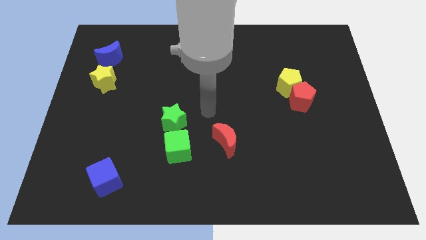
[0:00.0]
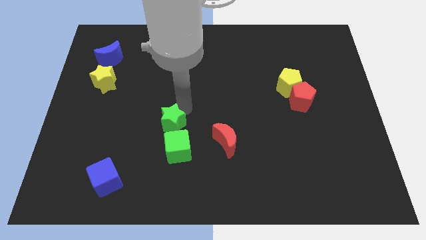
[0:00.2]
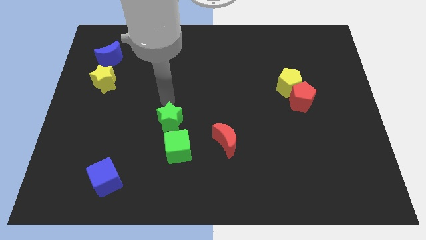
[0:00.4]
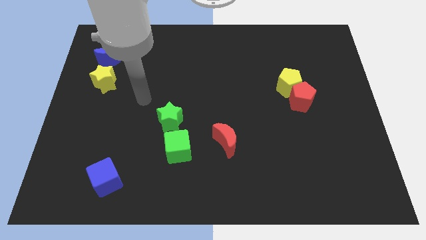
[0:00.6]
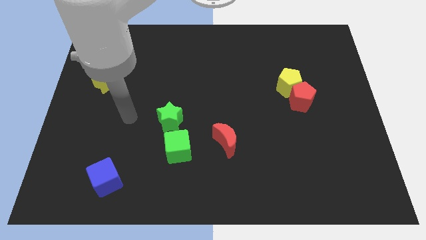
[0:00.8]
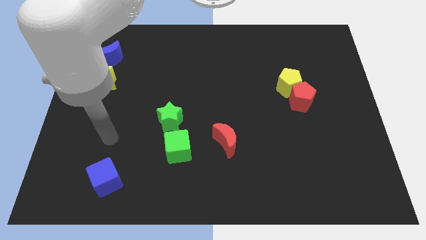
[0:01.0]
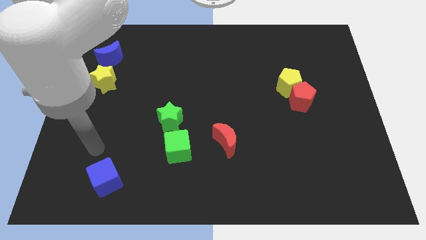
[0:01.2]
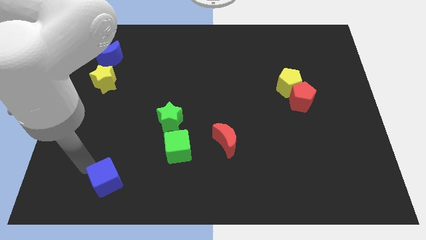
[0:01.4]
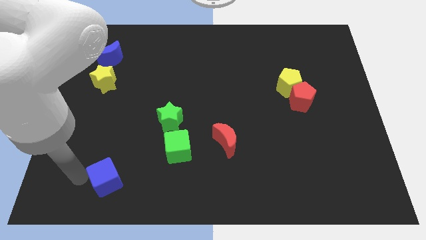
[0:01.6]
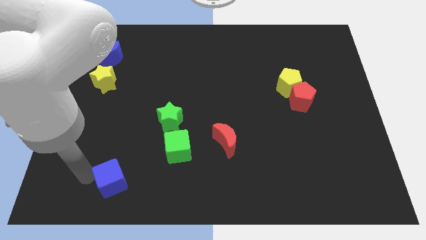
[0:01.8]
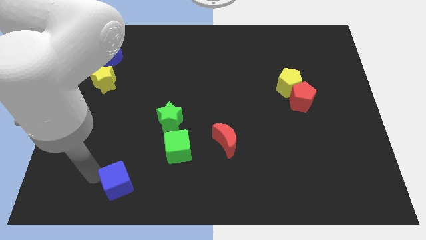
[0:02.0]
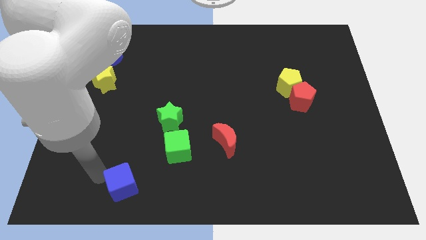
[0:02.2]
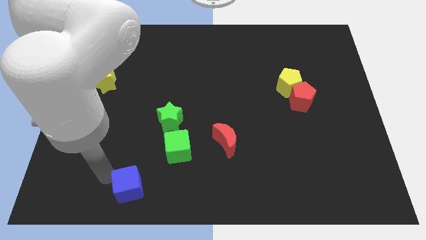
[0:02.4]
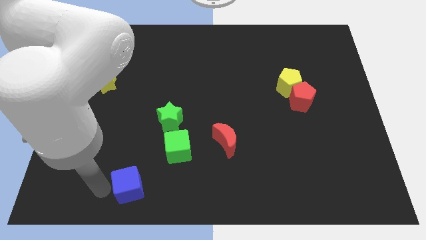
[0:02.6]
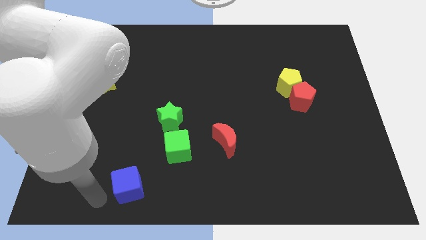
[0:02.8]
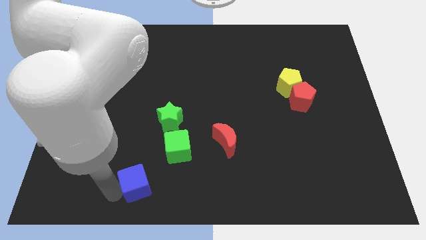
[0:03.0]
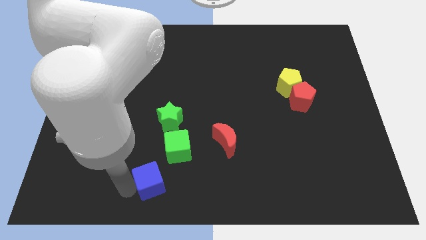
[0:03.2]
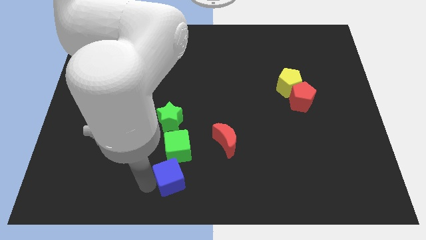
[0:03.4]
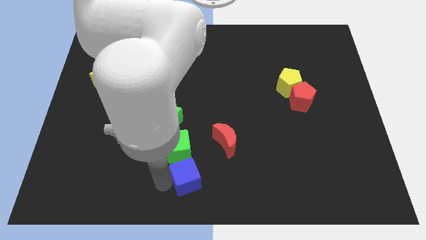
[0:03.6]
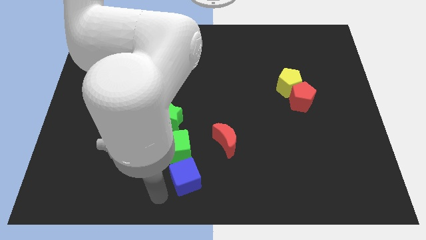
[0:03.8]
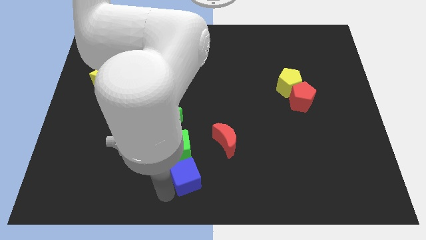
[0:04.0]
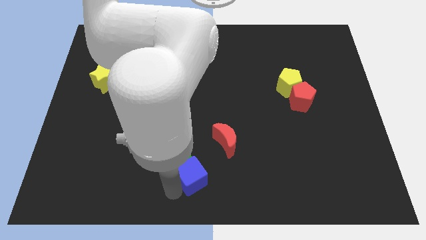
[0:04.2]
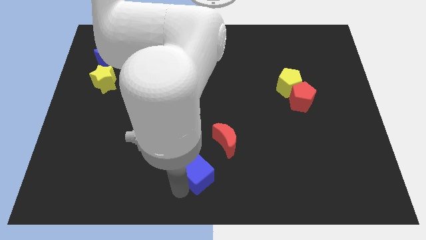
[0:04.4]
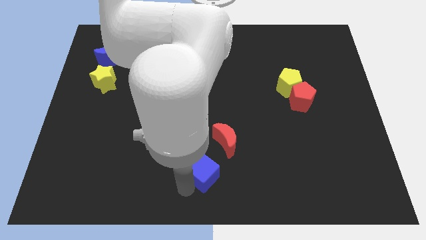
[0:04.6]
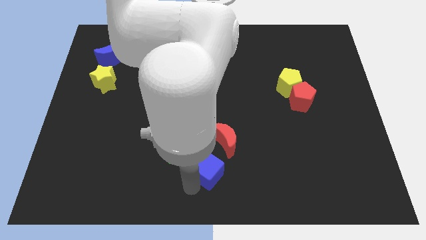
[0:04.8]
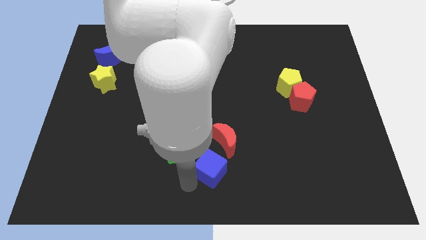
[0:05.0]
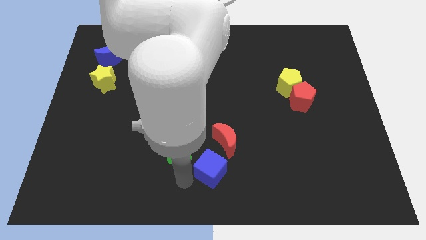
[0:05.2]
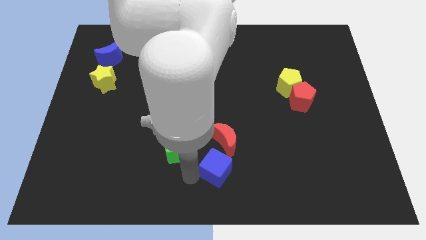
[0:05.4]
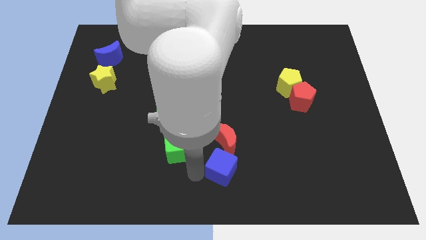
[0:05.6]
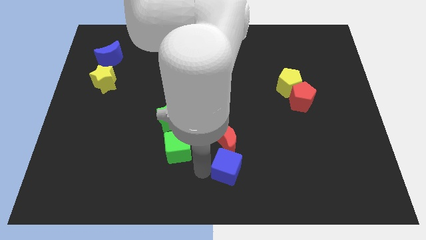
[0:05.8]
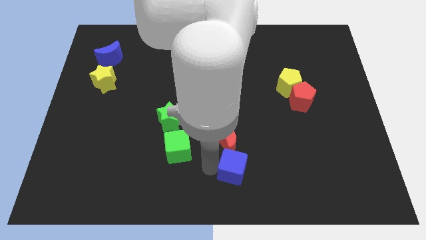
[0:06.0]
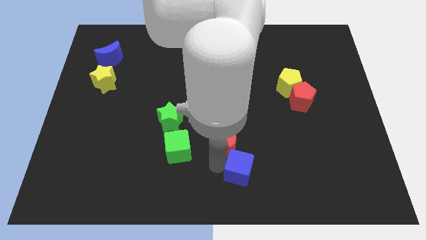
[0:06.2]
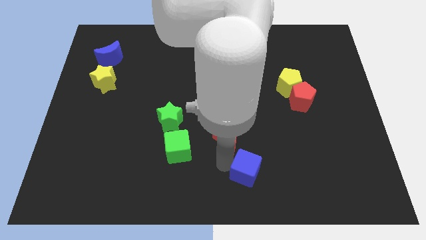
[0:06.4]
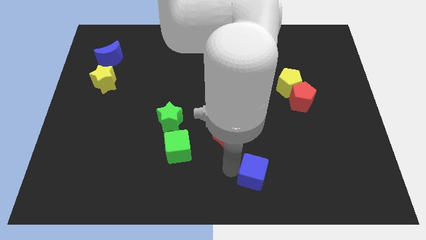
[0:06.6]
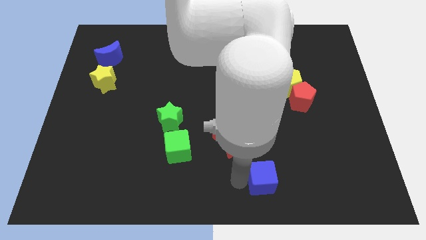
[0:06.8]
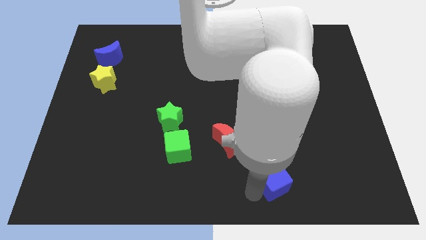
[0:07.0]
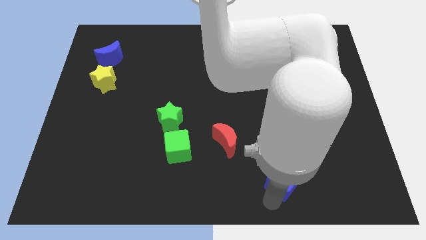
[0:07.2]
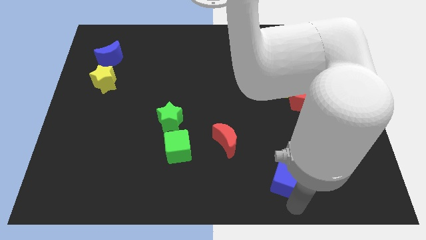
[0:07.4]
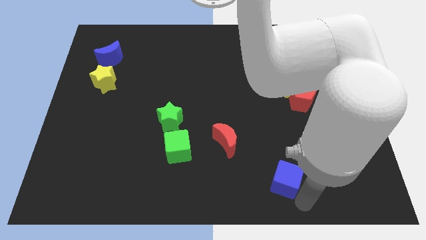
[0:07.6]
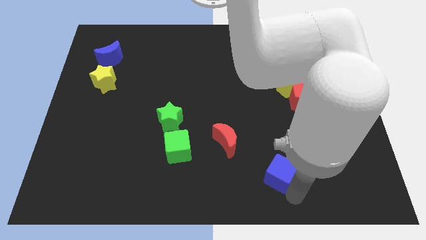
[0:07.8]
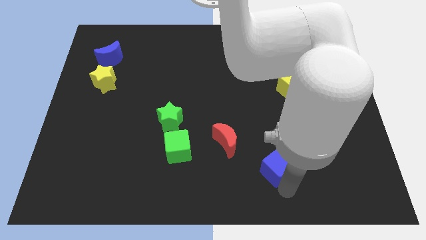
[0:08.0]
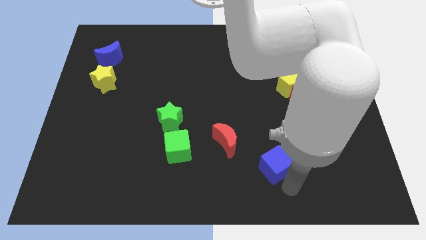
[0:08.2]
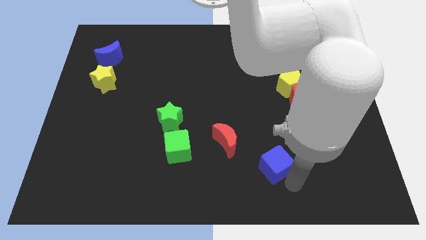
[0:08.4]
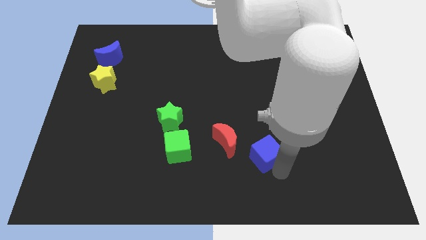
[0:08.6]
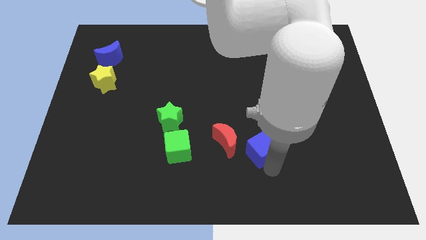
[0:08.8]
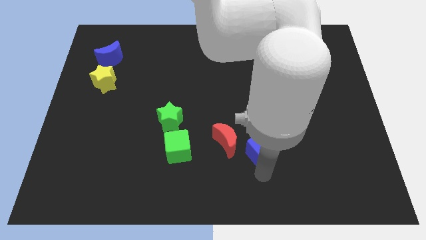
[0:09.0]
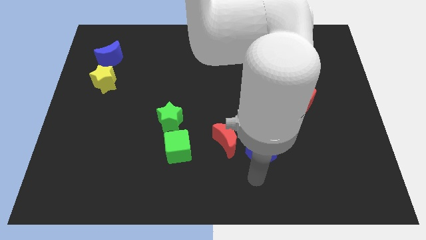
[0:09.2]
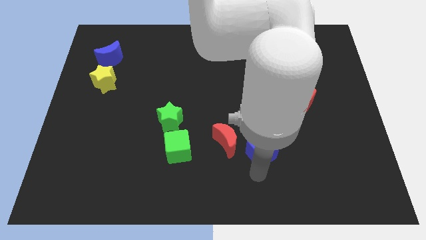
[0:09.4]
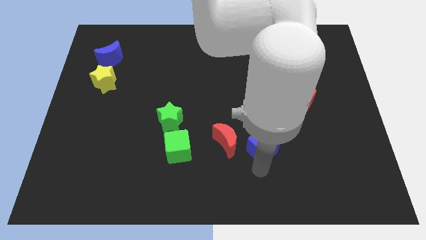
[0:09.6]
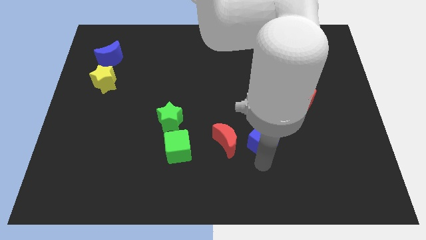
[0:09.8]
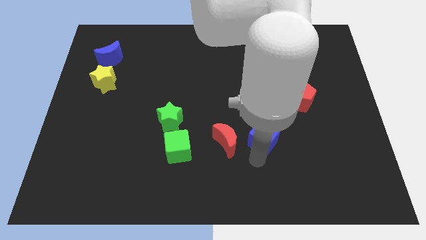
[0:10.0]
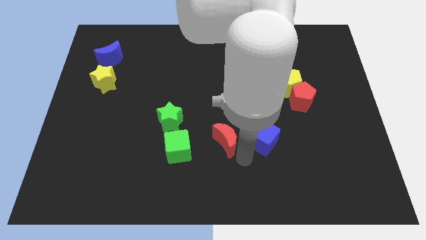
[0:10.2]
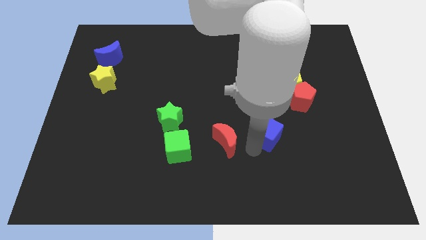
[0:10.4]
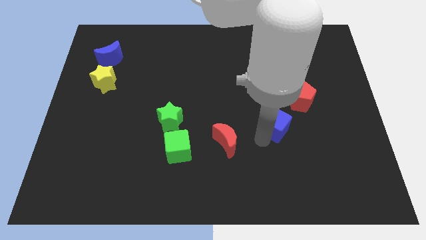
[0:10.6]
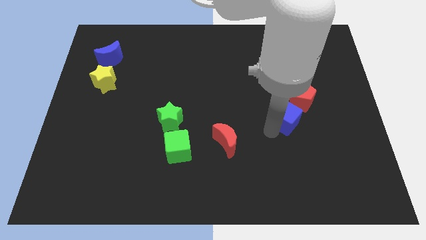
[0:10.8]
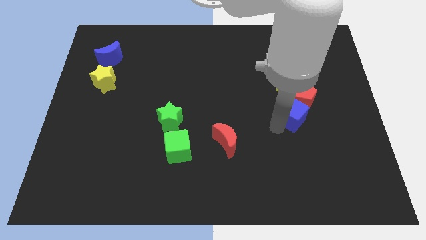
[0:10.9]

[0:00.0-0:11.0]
move the blue cube next to the red pentagon

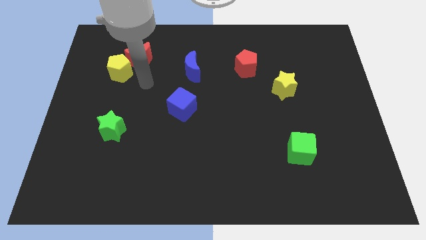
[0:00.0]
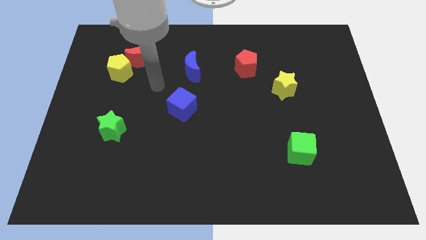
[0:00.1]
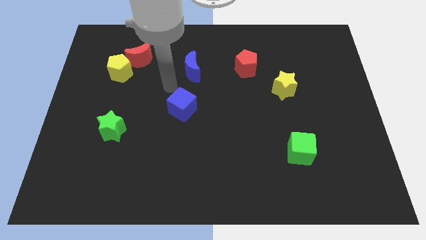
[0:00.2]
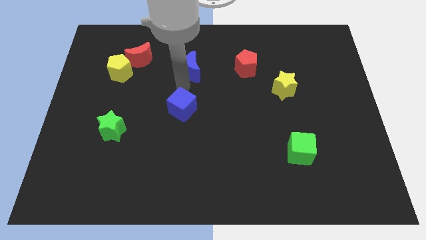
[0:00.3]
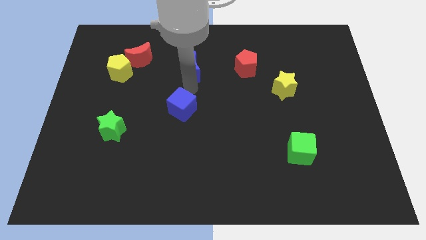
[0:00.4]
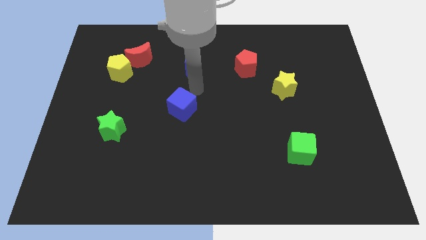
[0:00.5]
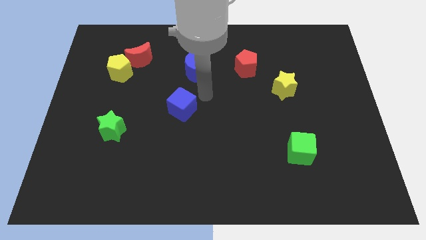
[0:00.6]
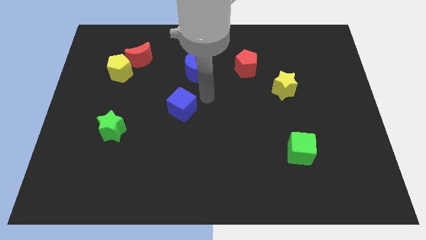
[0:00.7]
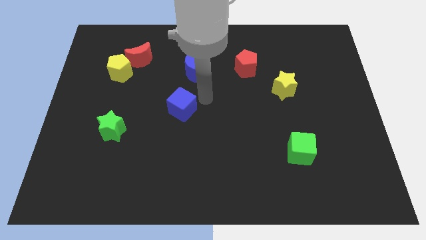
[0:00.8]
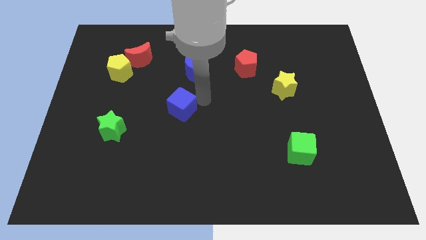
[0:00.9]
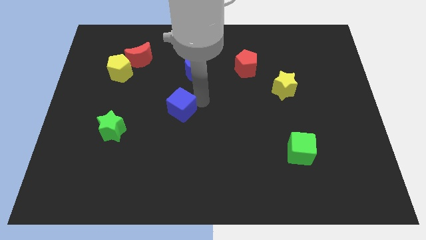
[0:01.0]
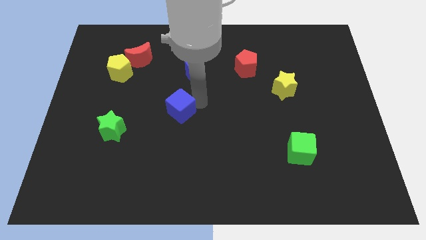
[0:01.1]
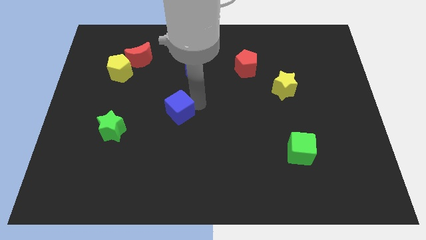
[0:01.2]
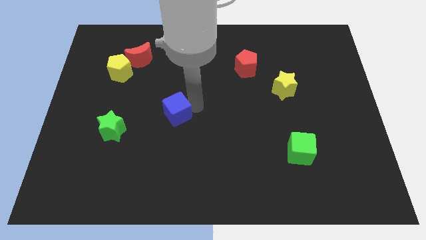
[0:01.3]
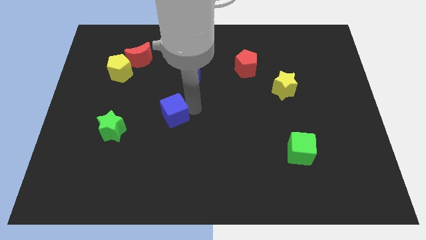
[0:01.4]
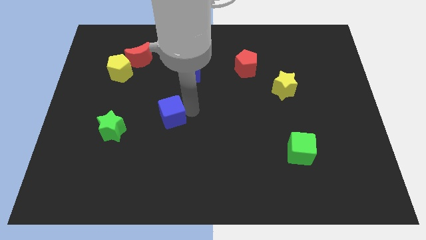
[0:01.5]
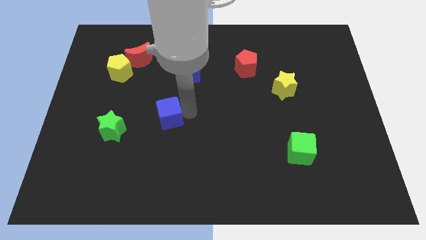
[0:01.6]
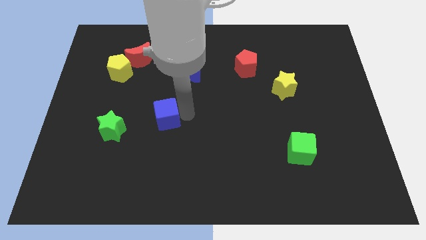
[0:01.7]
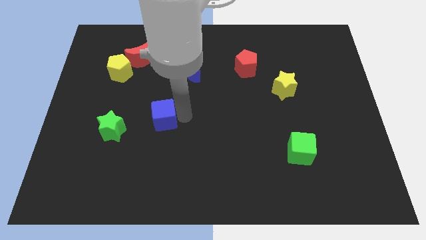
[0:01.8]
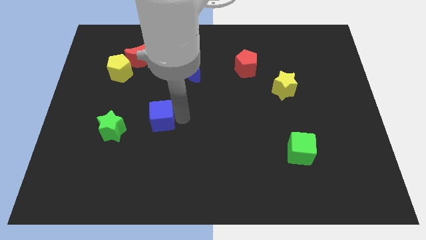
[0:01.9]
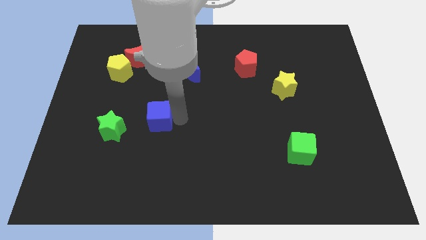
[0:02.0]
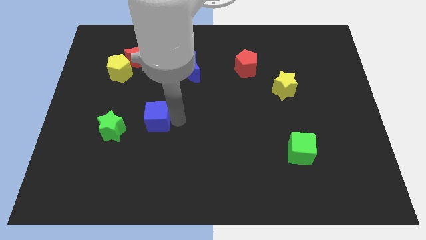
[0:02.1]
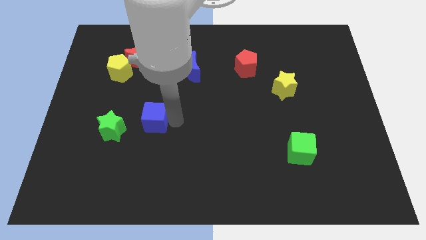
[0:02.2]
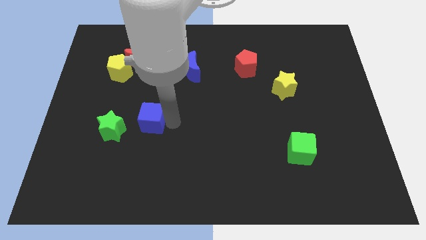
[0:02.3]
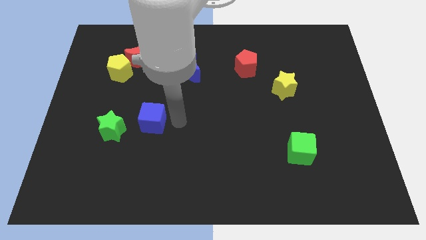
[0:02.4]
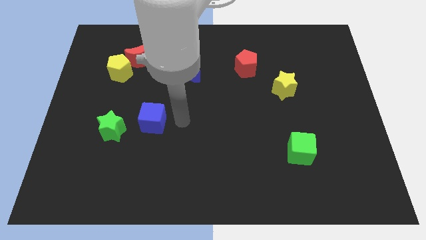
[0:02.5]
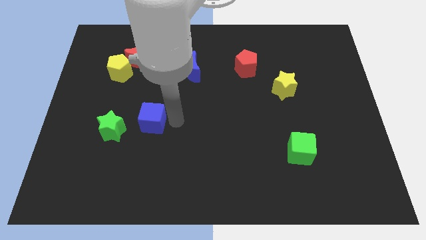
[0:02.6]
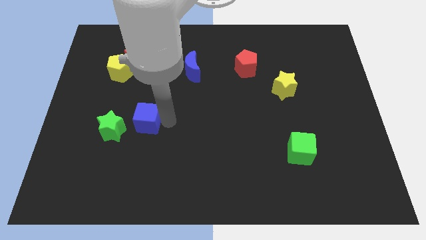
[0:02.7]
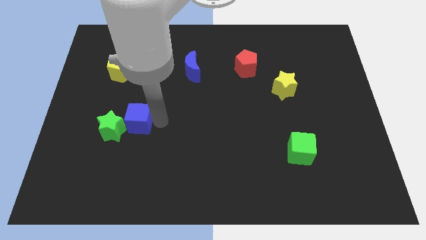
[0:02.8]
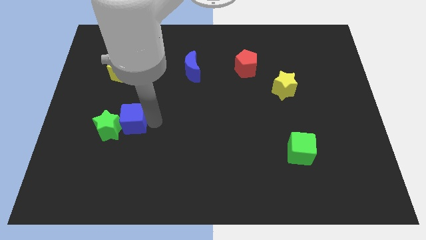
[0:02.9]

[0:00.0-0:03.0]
put the blue cube close to the green star
